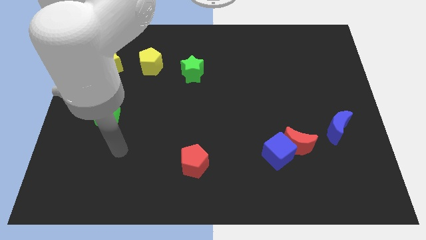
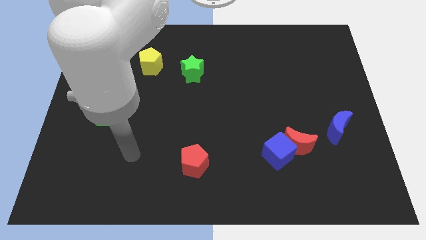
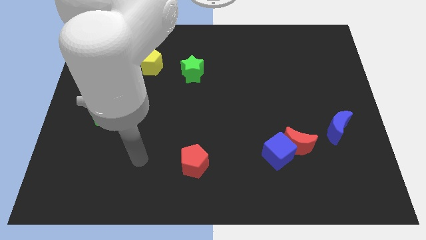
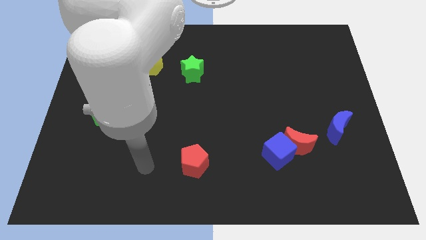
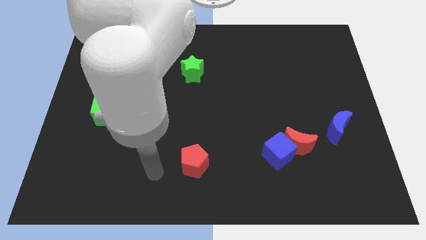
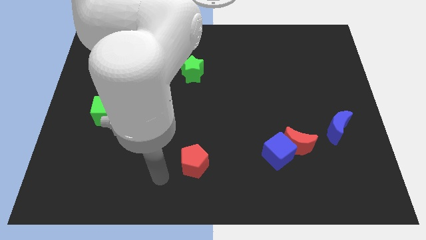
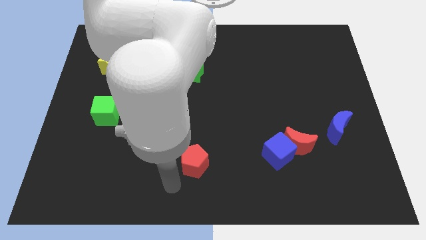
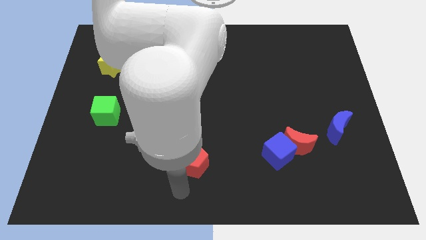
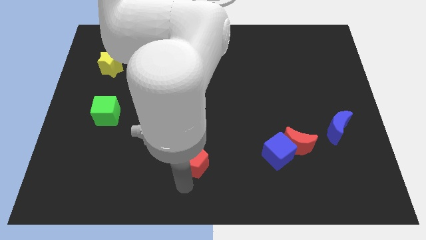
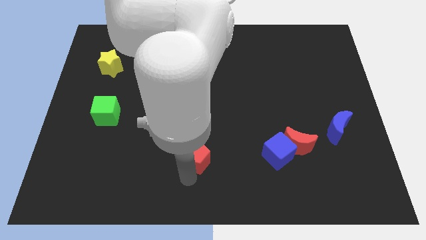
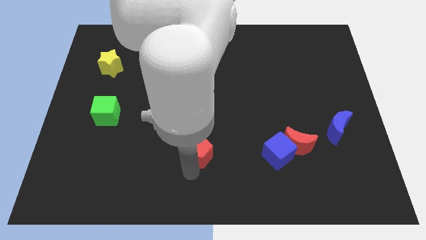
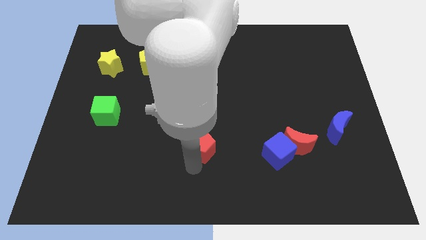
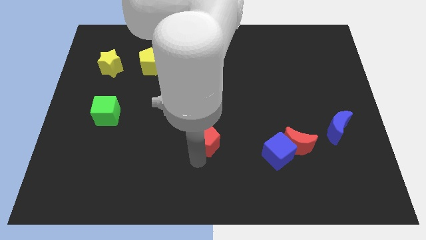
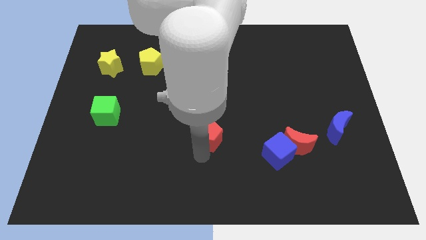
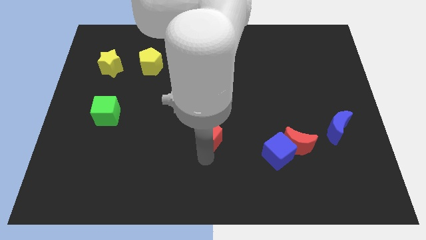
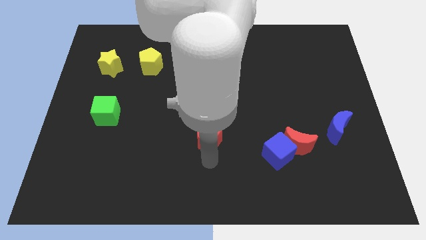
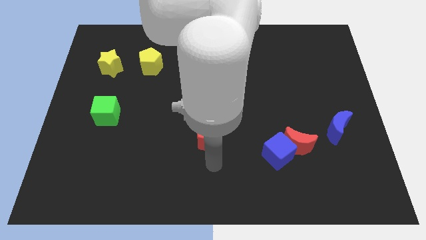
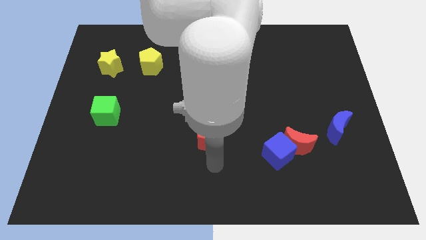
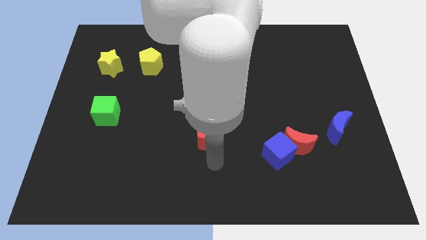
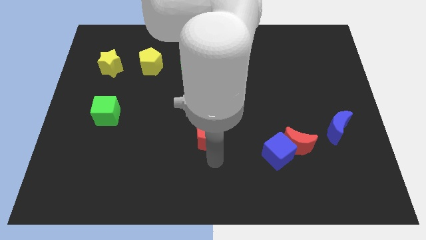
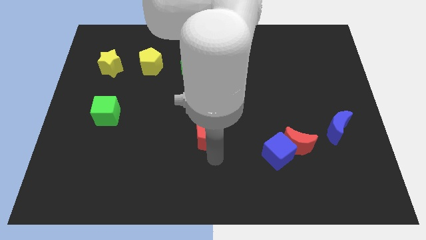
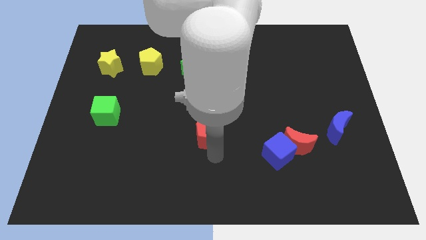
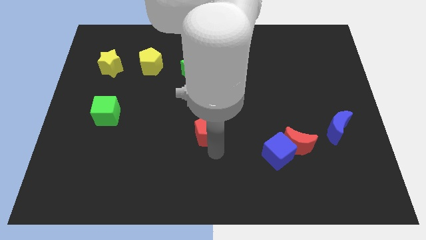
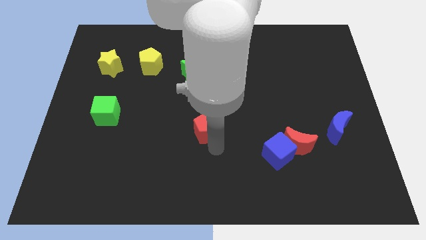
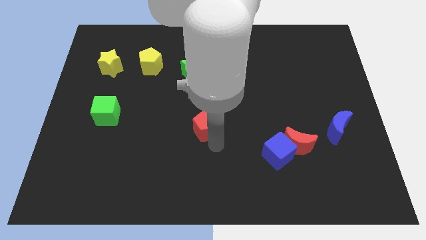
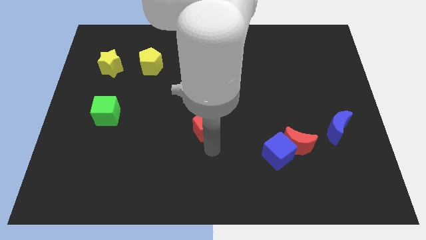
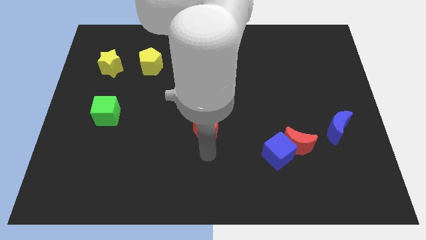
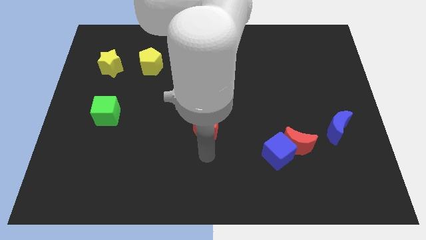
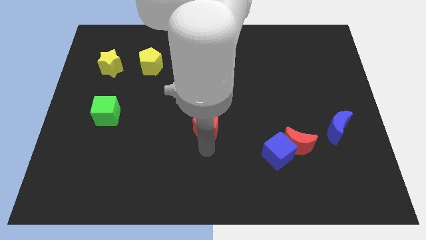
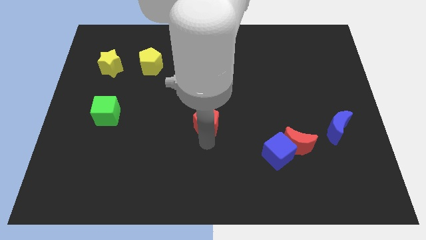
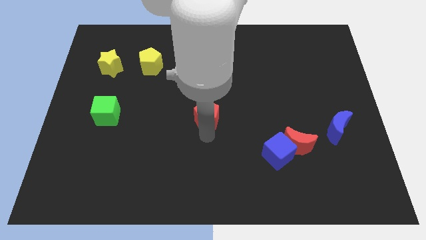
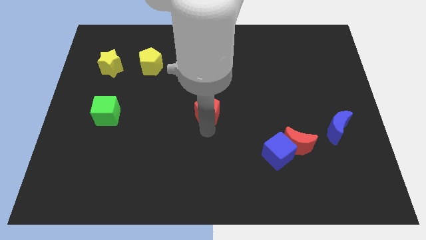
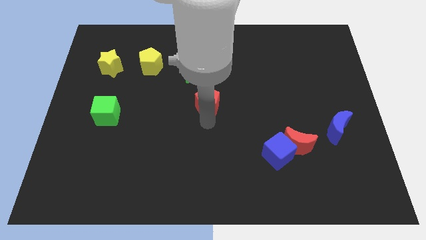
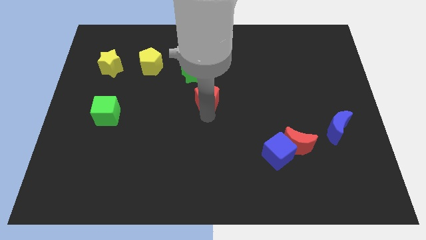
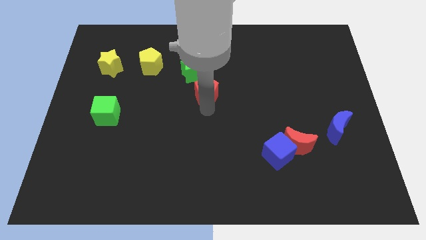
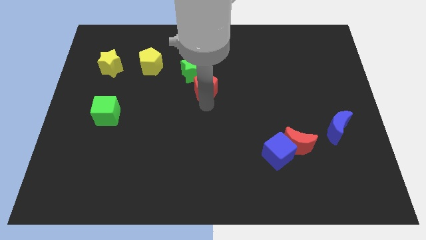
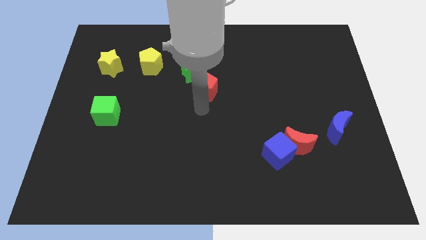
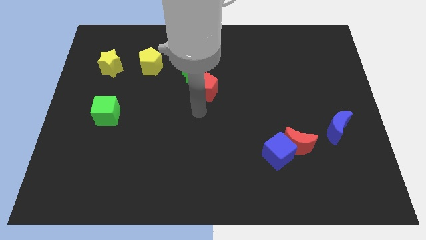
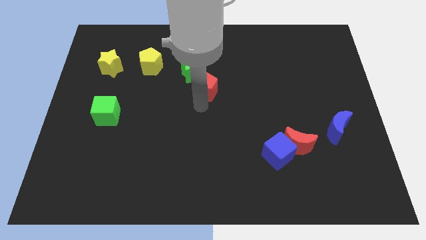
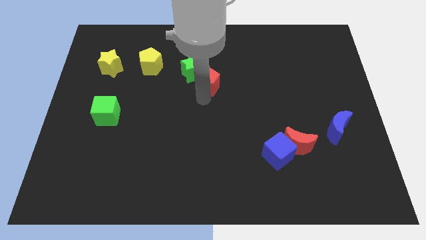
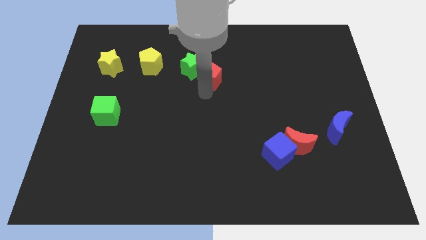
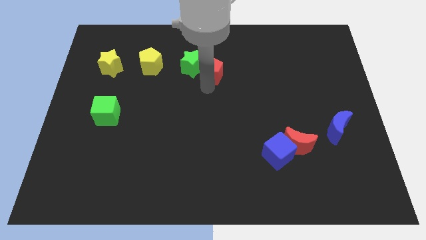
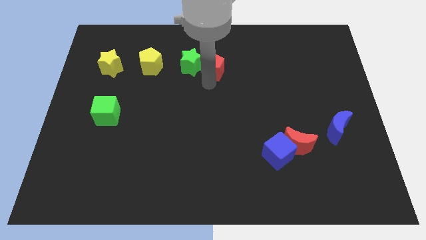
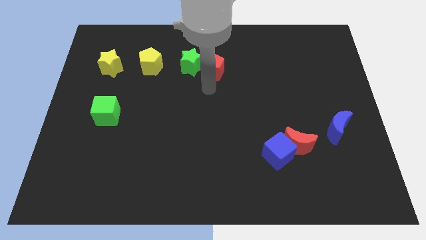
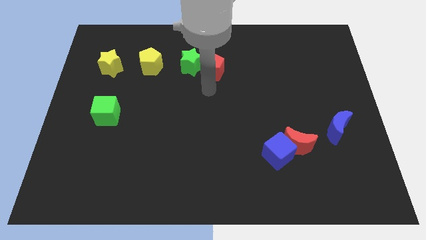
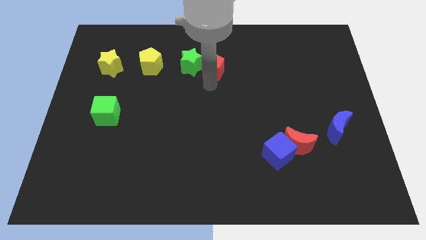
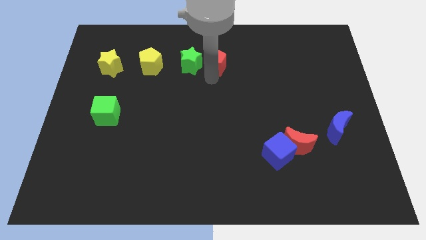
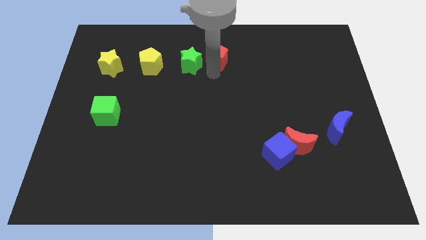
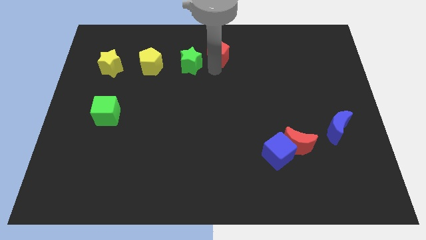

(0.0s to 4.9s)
put the red pentagon to the top side
